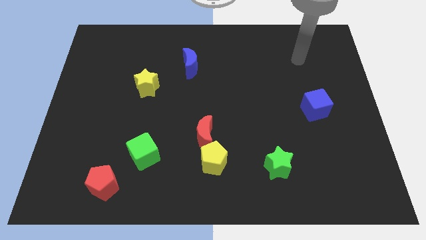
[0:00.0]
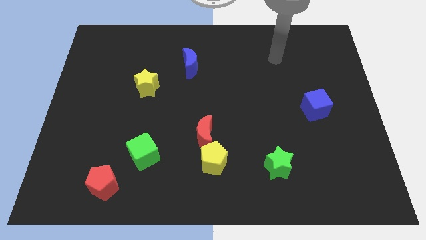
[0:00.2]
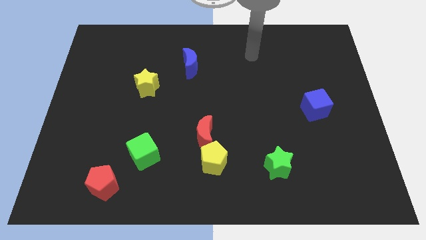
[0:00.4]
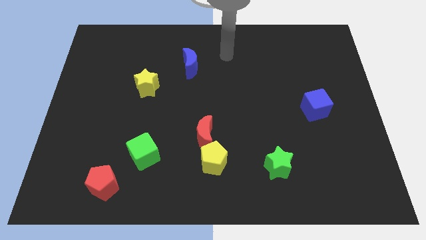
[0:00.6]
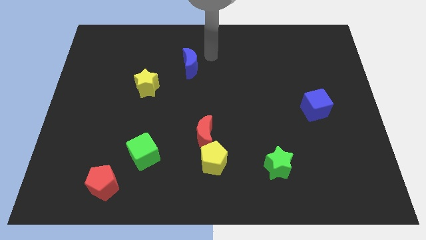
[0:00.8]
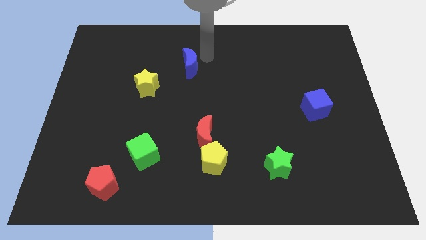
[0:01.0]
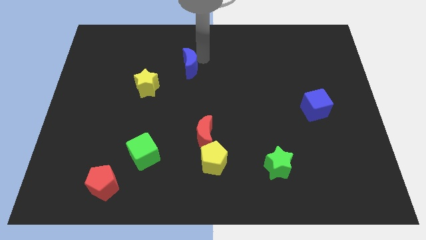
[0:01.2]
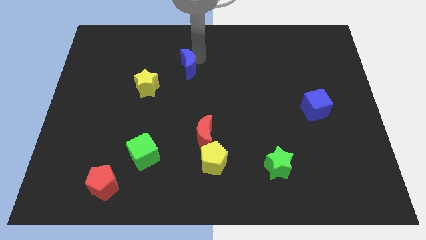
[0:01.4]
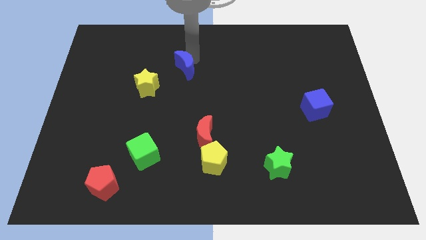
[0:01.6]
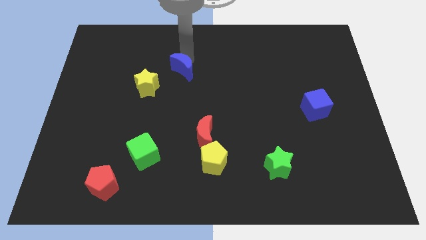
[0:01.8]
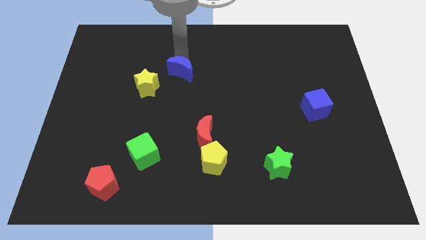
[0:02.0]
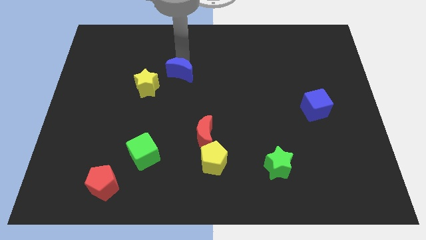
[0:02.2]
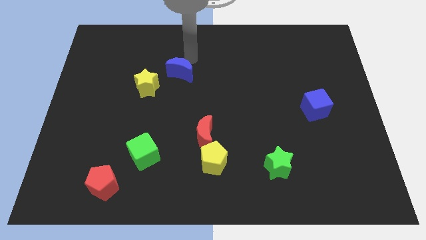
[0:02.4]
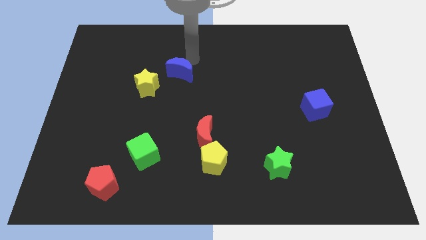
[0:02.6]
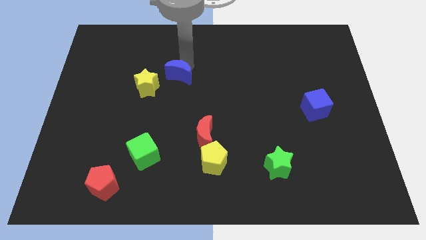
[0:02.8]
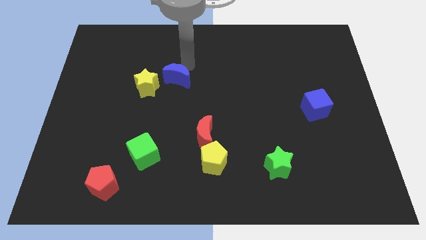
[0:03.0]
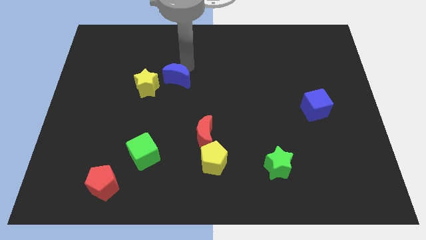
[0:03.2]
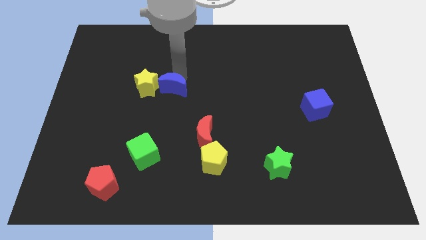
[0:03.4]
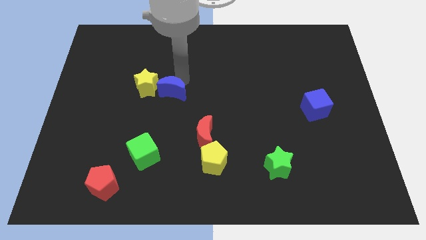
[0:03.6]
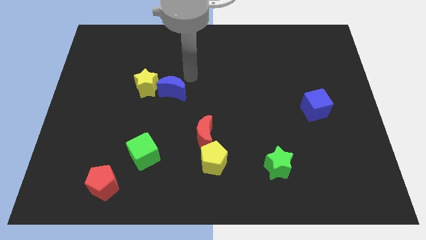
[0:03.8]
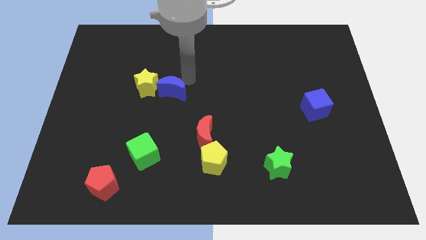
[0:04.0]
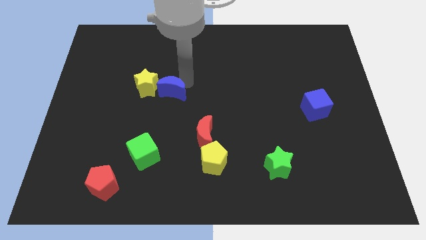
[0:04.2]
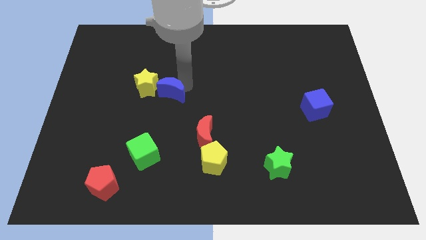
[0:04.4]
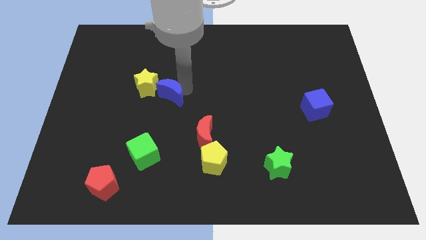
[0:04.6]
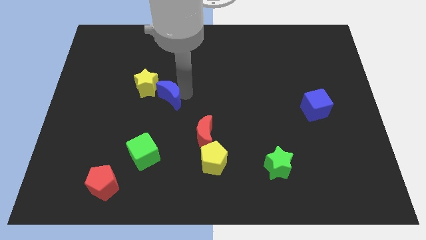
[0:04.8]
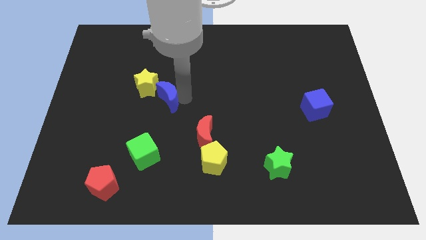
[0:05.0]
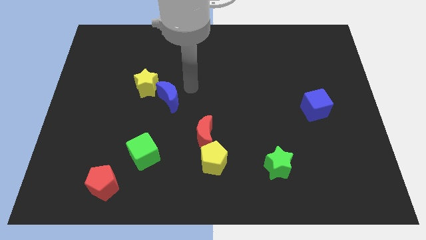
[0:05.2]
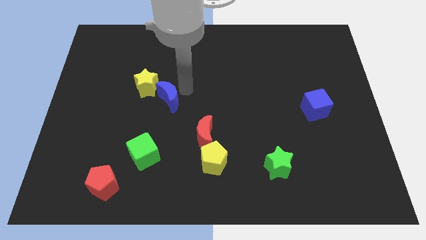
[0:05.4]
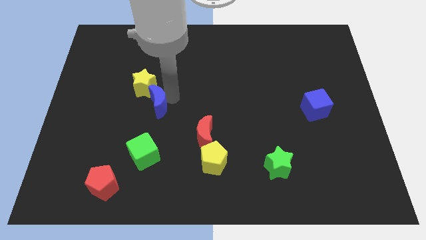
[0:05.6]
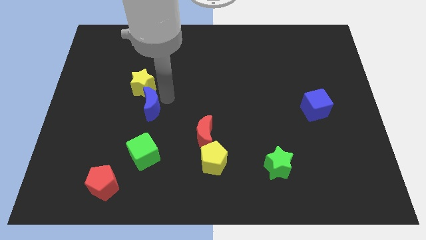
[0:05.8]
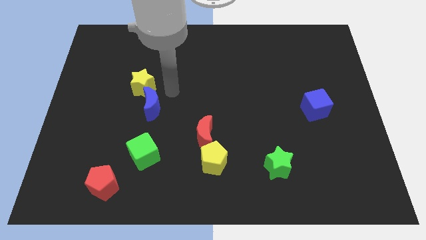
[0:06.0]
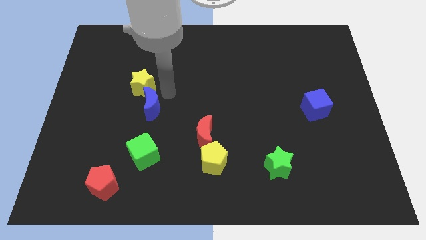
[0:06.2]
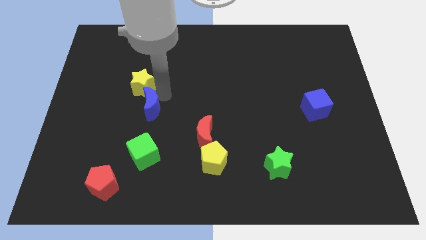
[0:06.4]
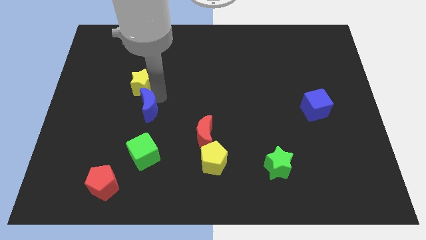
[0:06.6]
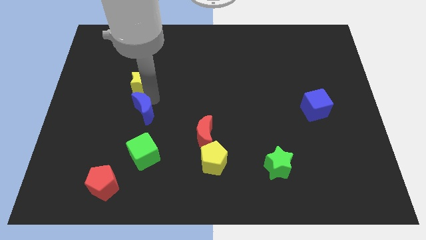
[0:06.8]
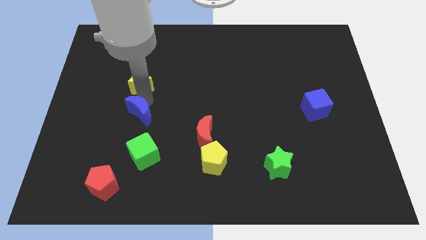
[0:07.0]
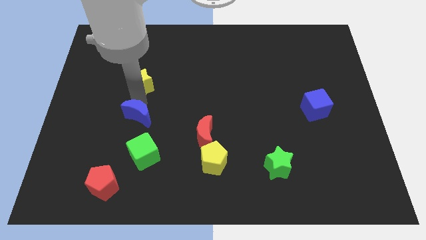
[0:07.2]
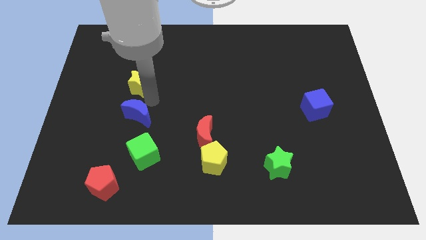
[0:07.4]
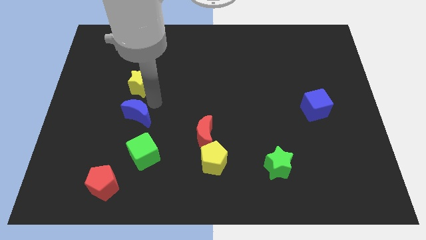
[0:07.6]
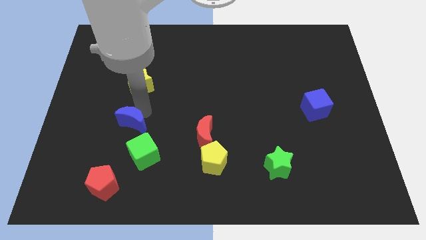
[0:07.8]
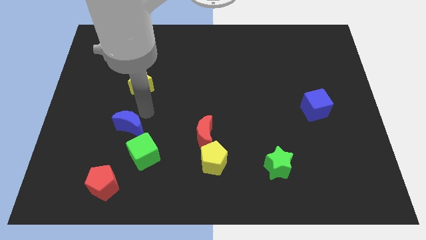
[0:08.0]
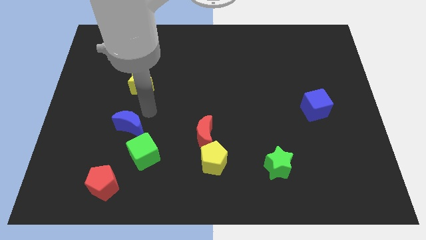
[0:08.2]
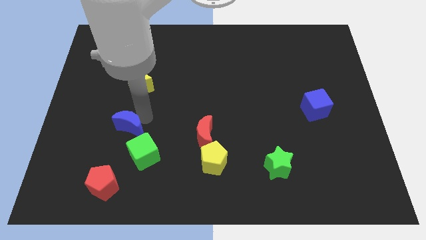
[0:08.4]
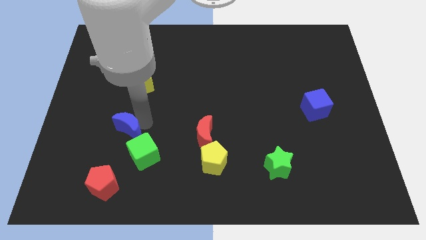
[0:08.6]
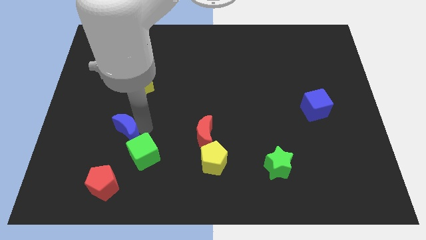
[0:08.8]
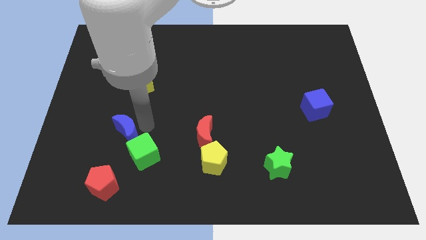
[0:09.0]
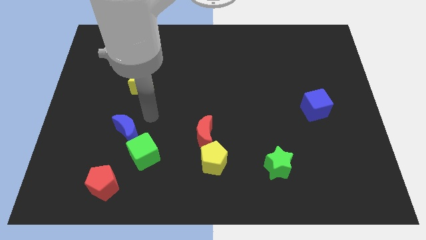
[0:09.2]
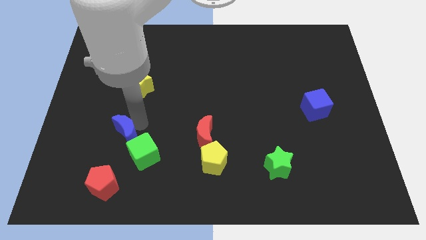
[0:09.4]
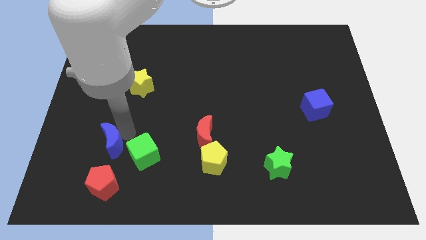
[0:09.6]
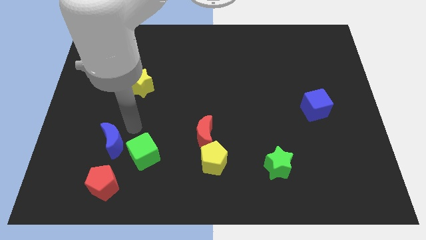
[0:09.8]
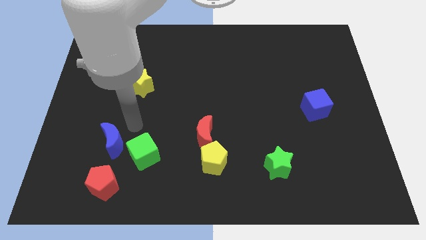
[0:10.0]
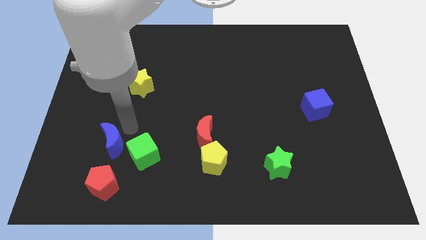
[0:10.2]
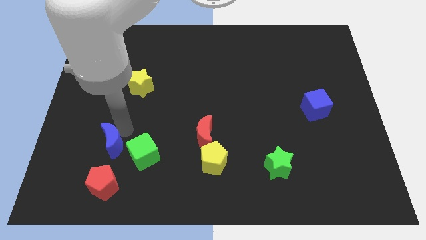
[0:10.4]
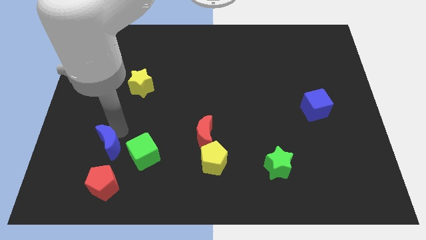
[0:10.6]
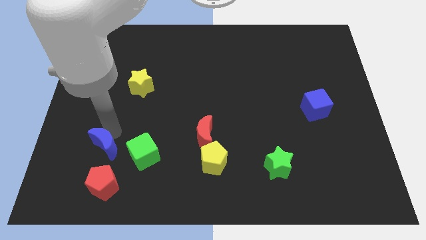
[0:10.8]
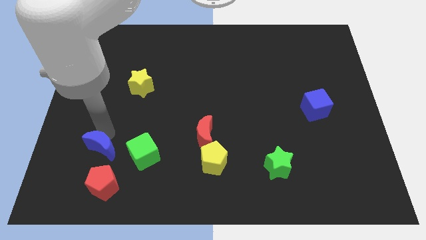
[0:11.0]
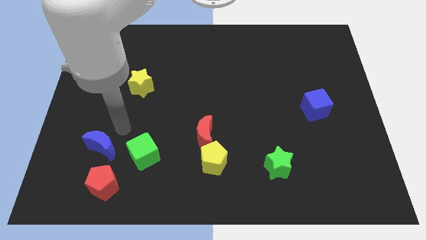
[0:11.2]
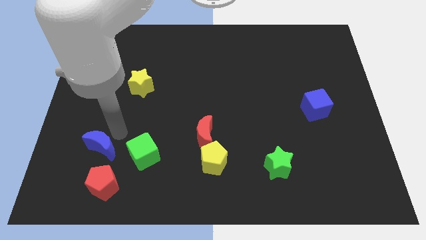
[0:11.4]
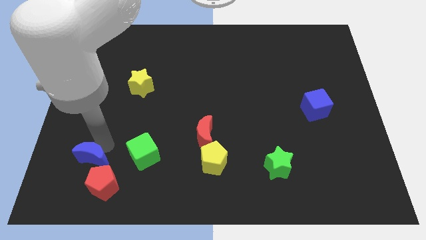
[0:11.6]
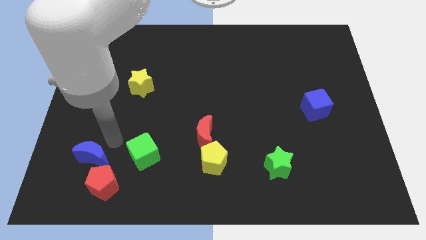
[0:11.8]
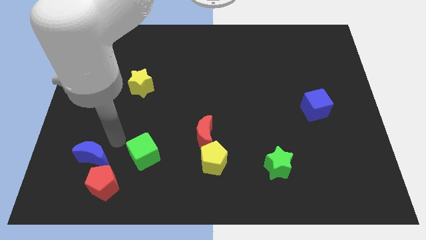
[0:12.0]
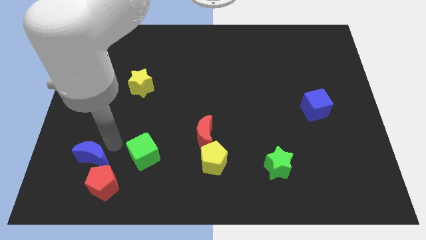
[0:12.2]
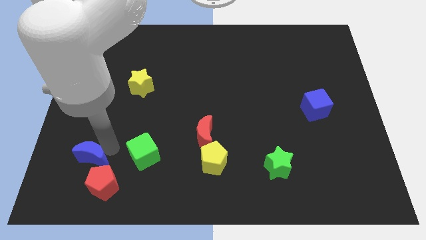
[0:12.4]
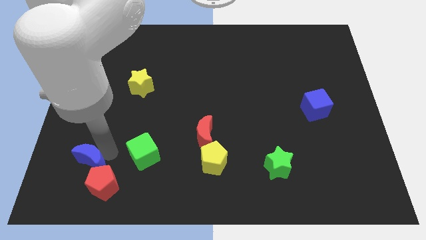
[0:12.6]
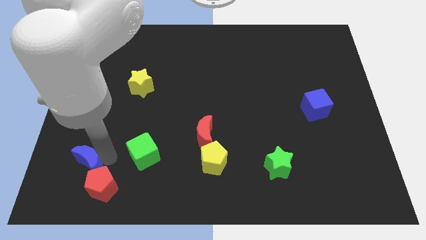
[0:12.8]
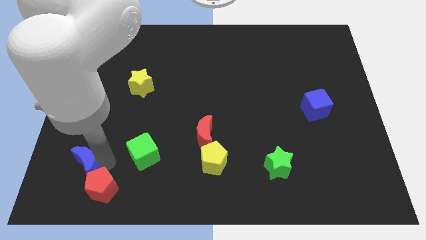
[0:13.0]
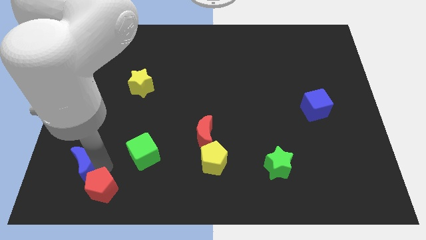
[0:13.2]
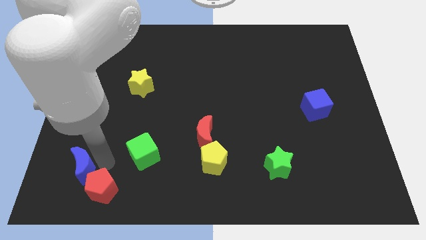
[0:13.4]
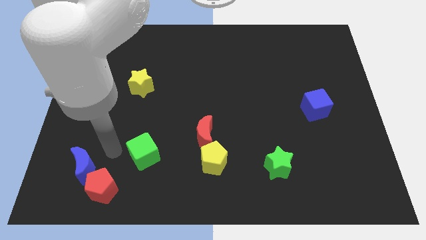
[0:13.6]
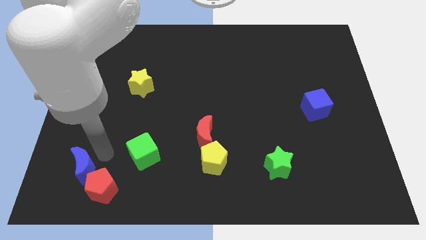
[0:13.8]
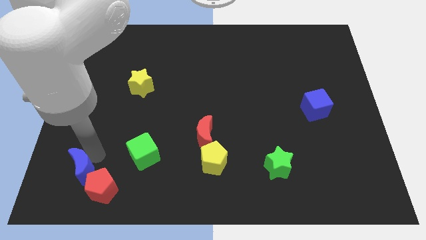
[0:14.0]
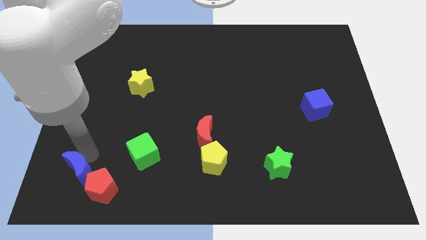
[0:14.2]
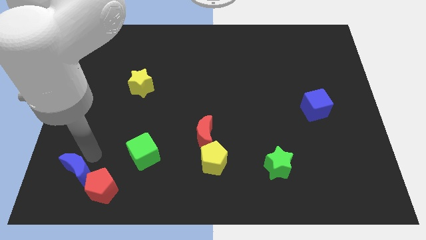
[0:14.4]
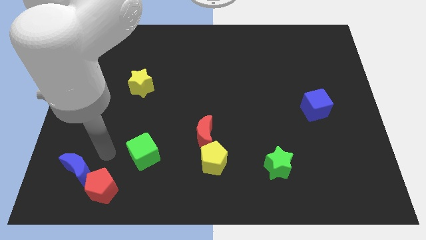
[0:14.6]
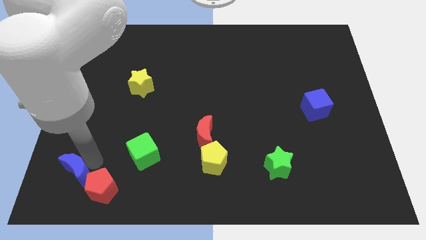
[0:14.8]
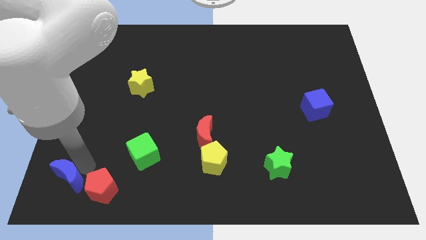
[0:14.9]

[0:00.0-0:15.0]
slide the blue moon to the lower left corner

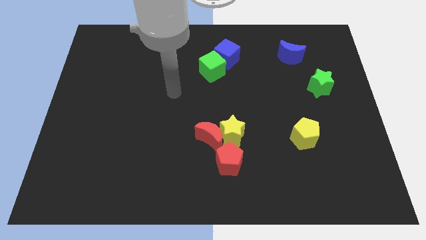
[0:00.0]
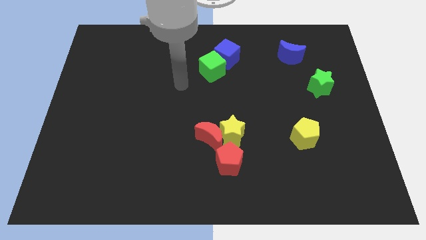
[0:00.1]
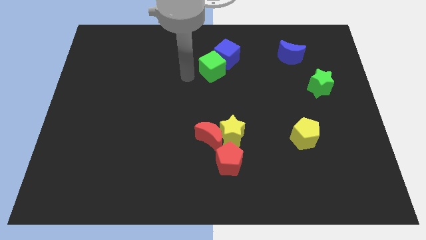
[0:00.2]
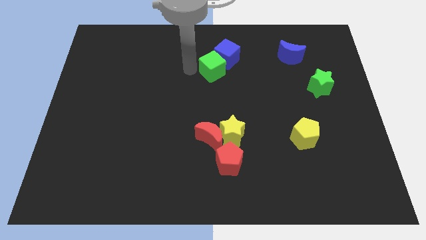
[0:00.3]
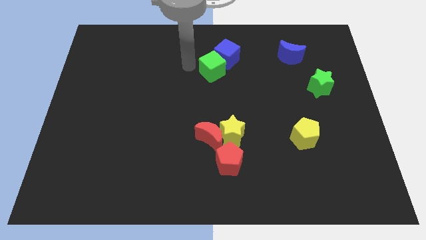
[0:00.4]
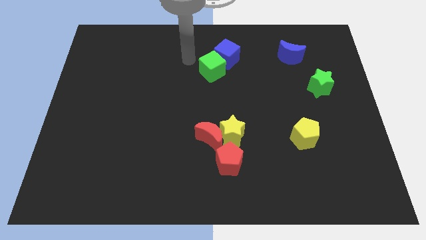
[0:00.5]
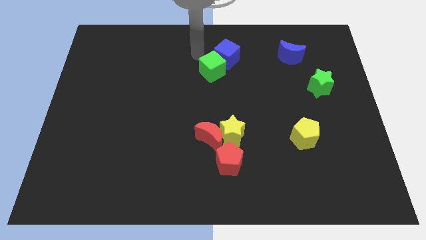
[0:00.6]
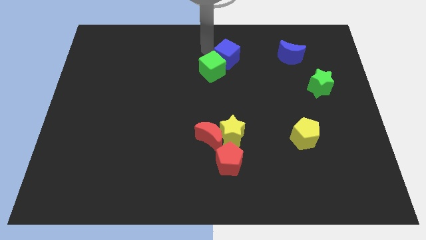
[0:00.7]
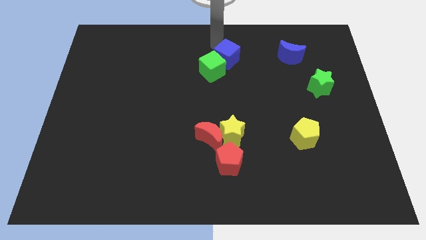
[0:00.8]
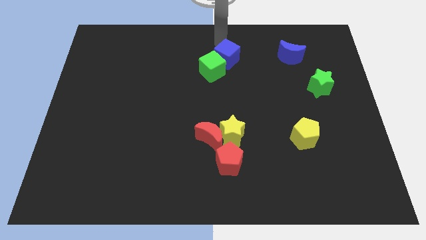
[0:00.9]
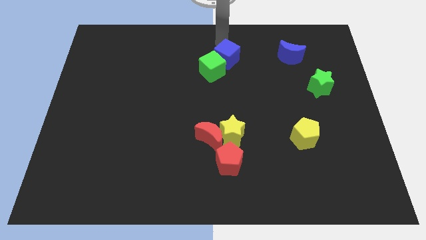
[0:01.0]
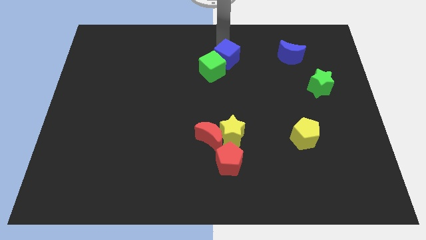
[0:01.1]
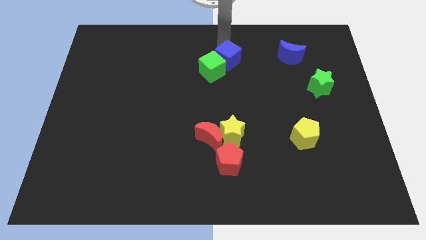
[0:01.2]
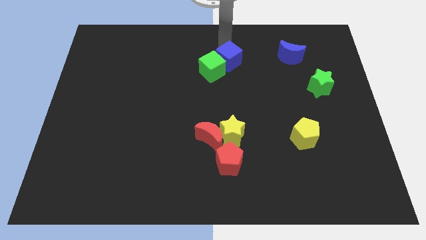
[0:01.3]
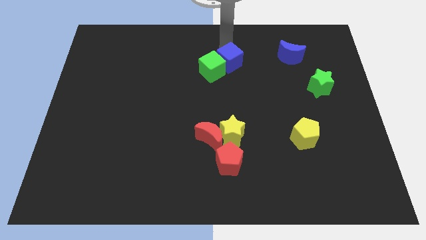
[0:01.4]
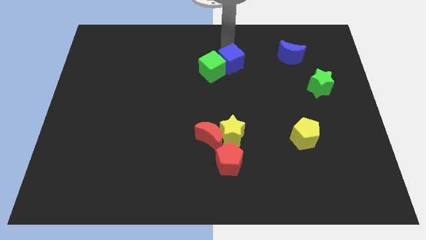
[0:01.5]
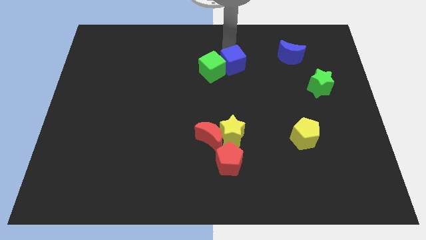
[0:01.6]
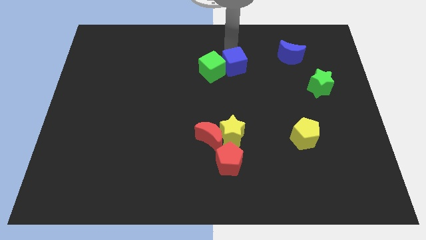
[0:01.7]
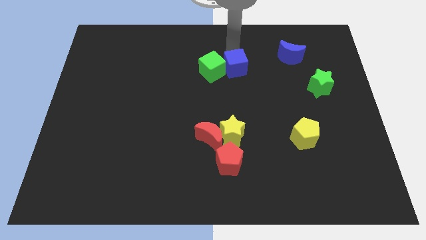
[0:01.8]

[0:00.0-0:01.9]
move the blue cube to the middle of the board
